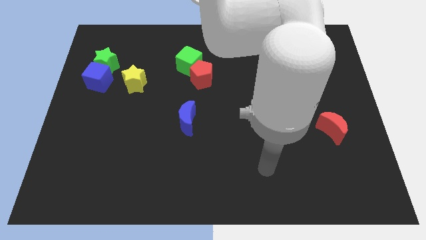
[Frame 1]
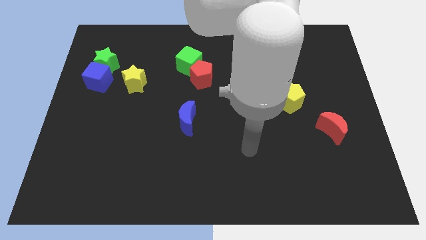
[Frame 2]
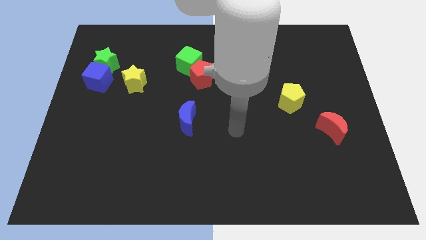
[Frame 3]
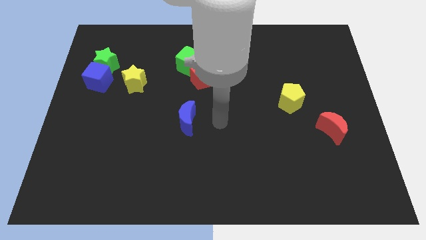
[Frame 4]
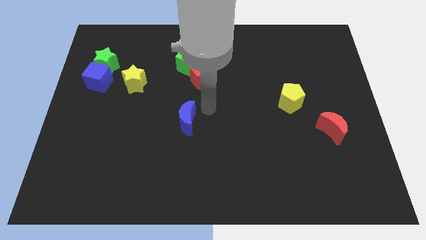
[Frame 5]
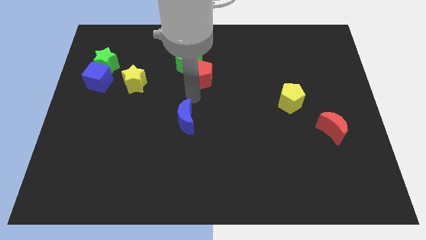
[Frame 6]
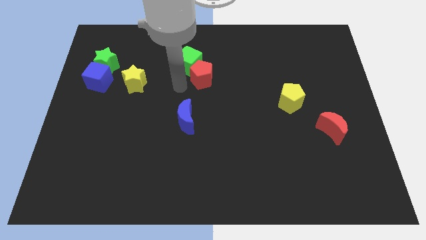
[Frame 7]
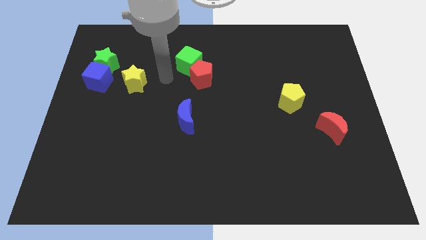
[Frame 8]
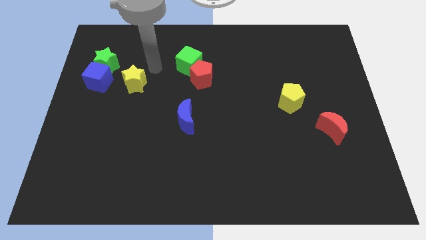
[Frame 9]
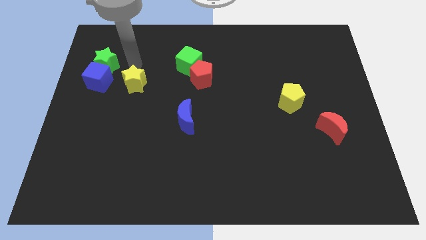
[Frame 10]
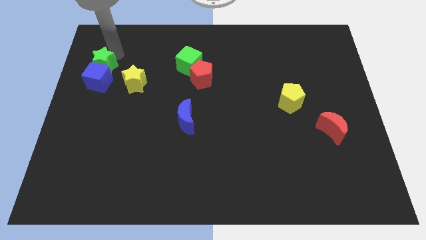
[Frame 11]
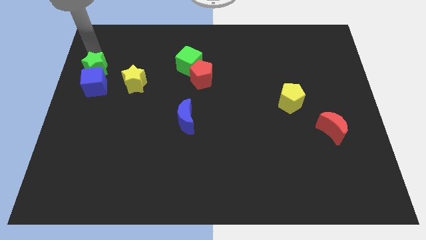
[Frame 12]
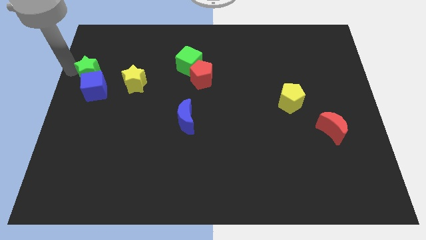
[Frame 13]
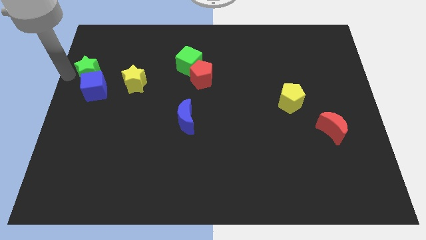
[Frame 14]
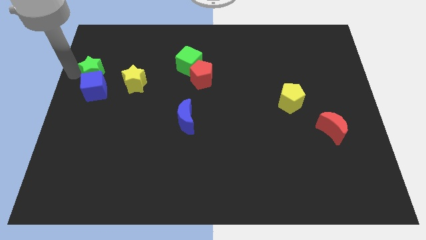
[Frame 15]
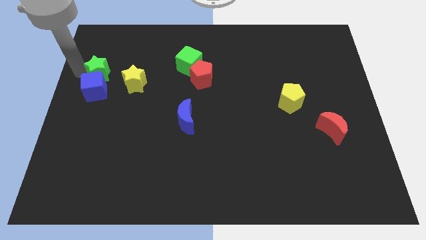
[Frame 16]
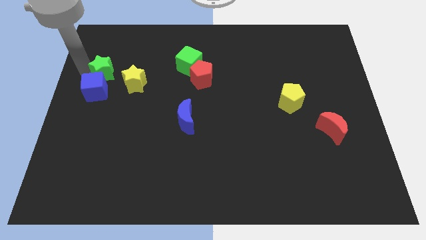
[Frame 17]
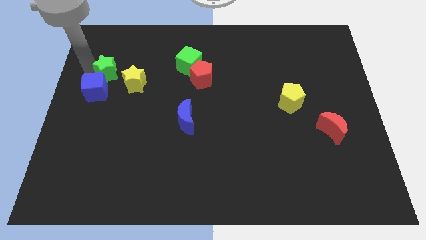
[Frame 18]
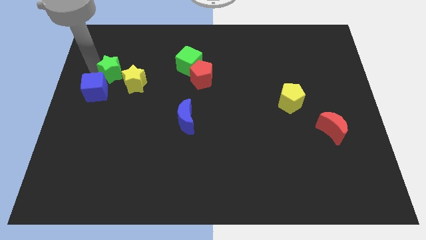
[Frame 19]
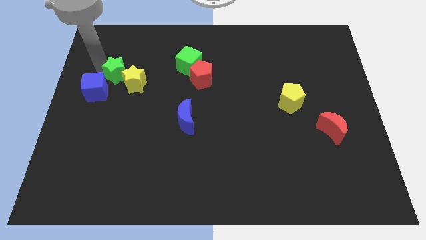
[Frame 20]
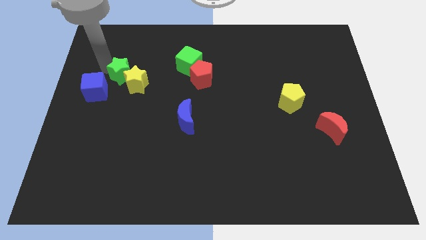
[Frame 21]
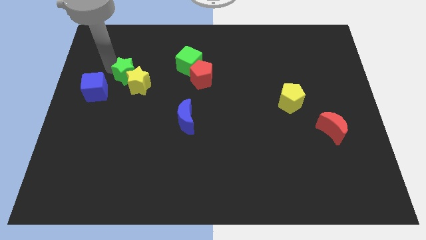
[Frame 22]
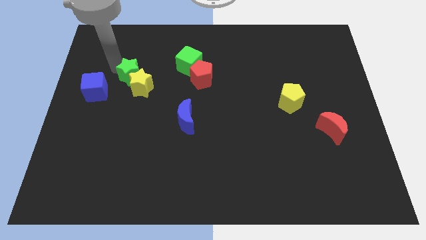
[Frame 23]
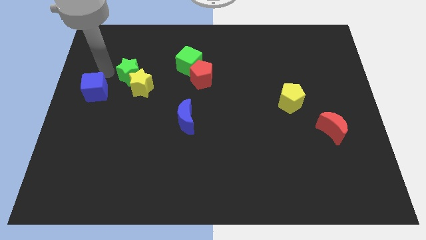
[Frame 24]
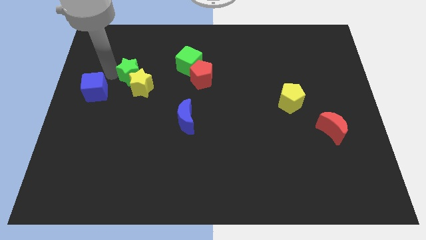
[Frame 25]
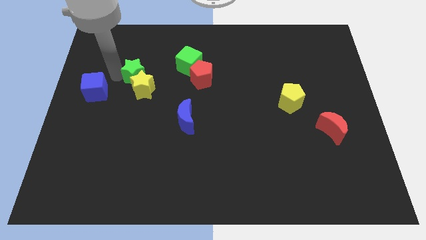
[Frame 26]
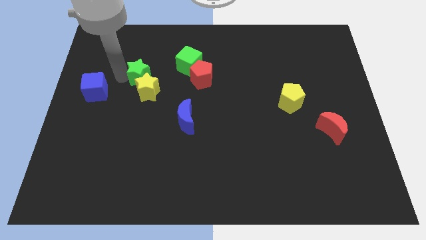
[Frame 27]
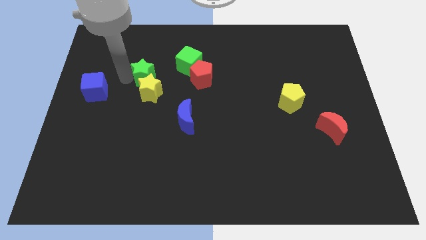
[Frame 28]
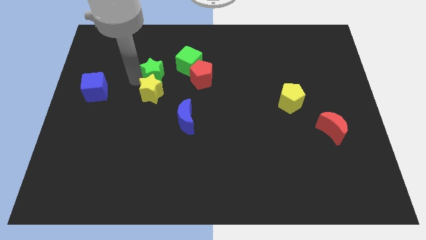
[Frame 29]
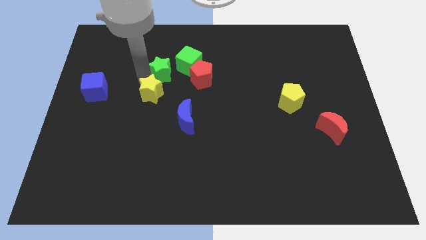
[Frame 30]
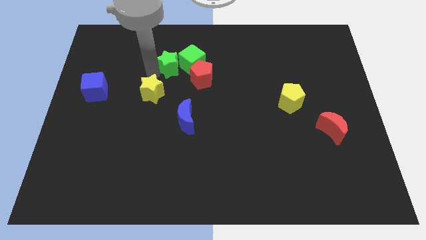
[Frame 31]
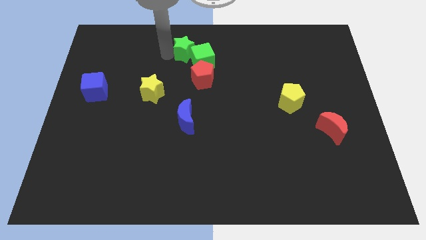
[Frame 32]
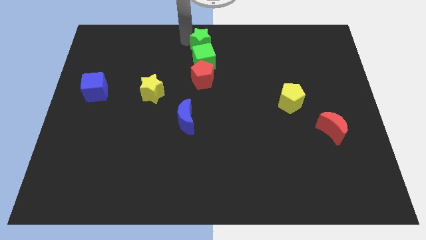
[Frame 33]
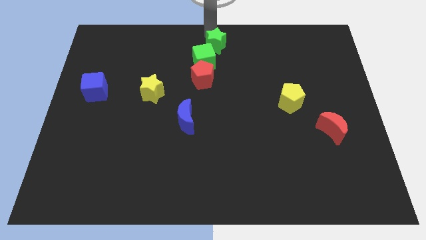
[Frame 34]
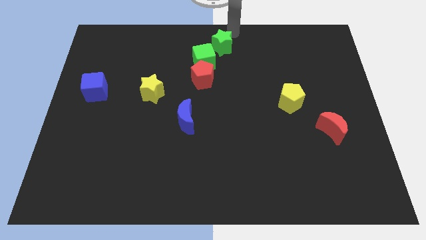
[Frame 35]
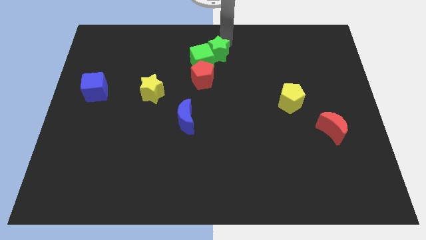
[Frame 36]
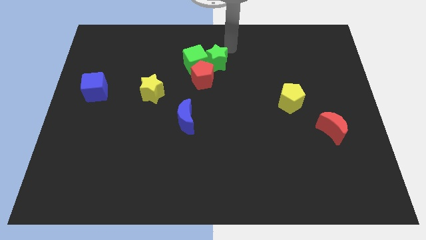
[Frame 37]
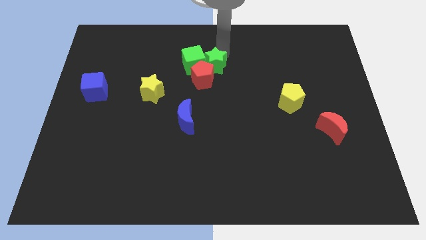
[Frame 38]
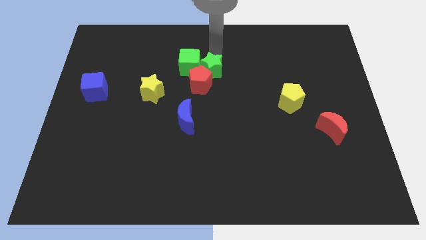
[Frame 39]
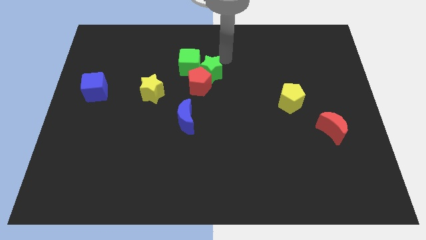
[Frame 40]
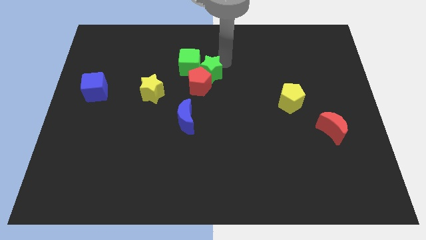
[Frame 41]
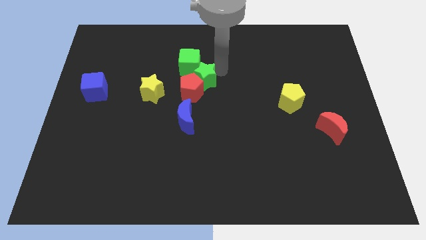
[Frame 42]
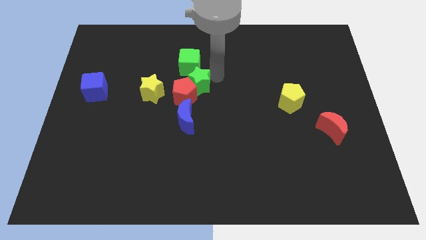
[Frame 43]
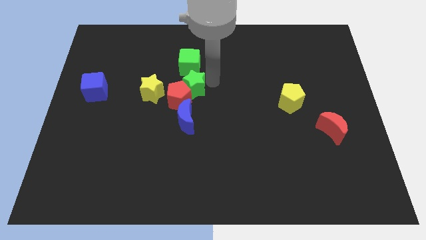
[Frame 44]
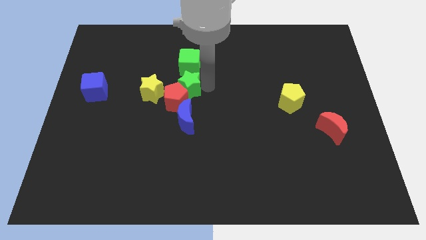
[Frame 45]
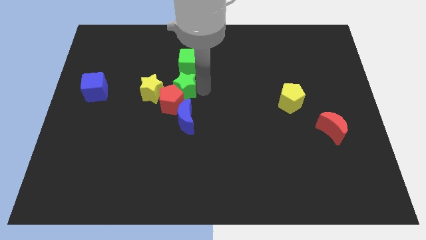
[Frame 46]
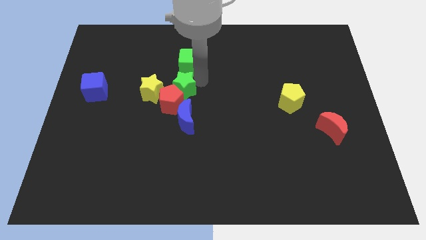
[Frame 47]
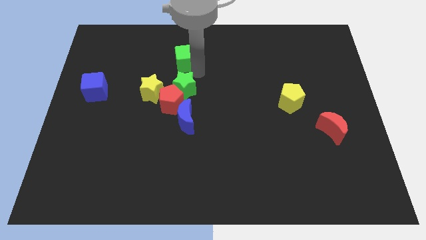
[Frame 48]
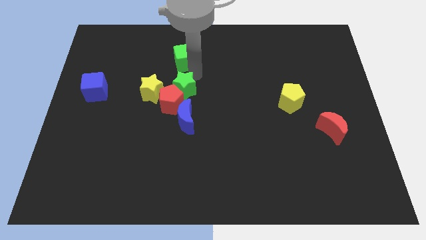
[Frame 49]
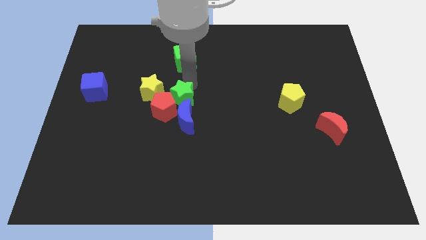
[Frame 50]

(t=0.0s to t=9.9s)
put the green star to the bottom right side of the yellow star

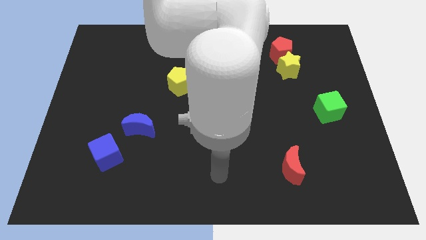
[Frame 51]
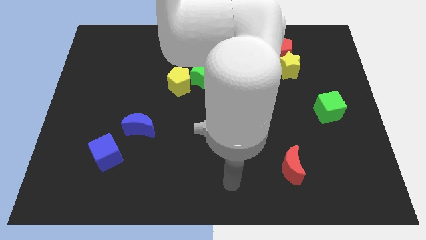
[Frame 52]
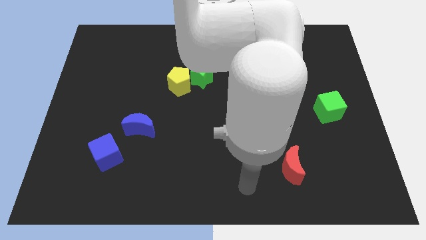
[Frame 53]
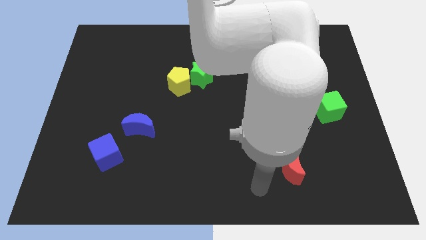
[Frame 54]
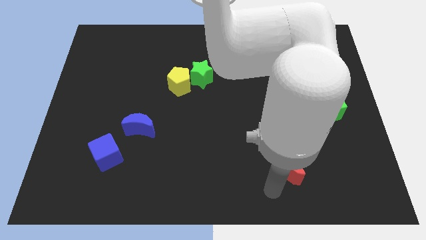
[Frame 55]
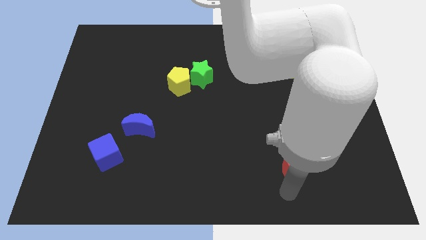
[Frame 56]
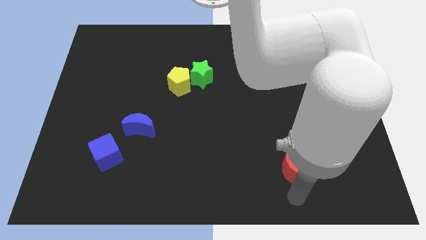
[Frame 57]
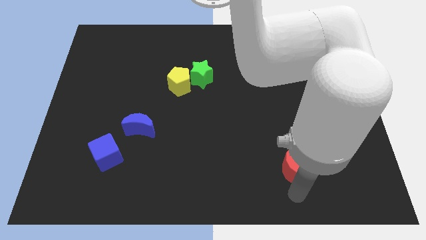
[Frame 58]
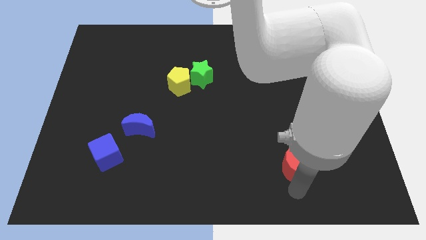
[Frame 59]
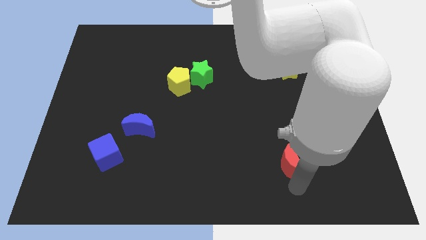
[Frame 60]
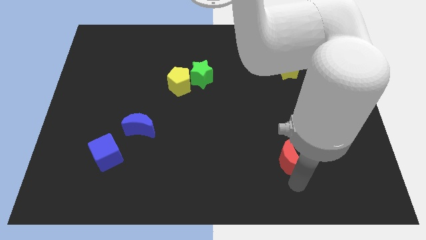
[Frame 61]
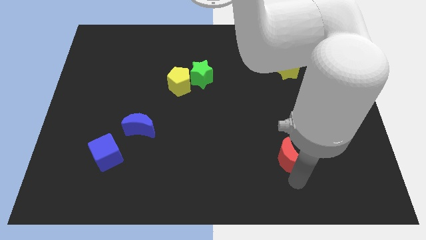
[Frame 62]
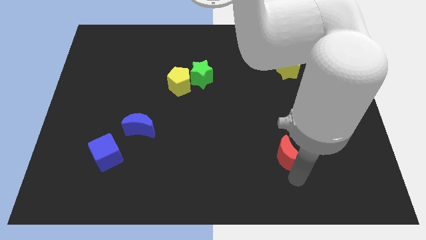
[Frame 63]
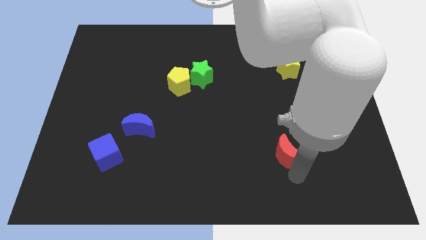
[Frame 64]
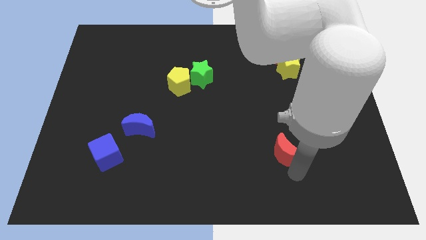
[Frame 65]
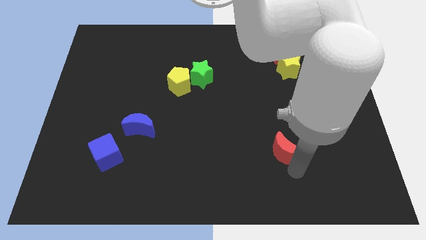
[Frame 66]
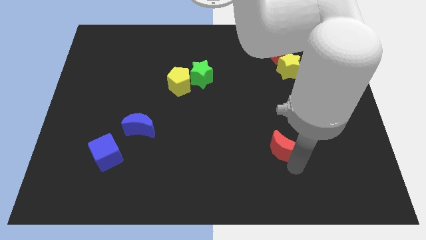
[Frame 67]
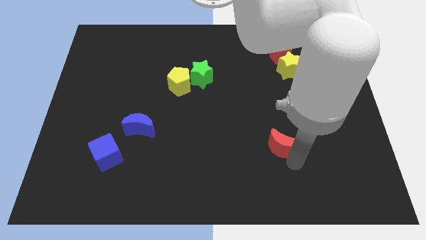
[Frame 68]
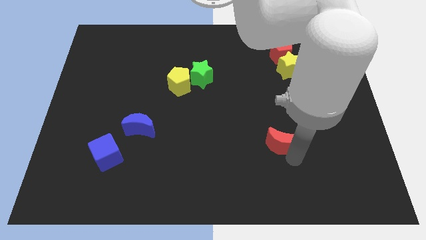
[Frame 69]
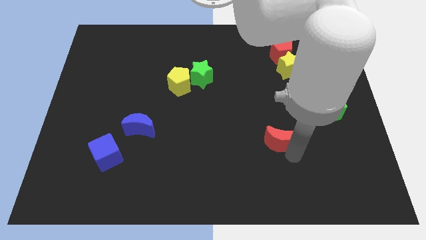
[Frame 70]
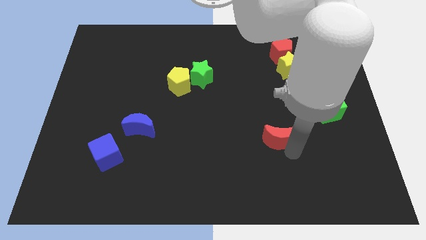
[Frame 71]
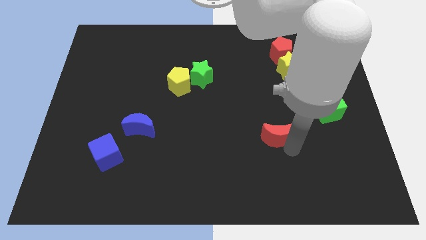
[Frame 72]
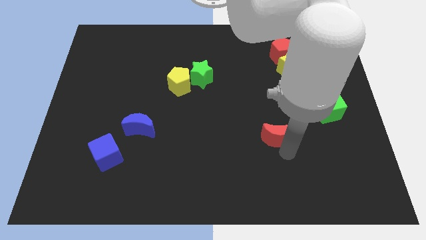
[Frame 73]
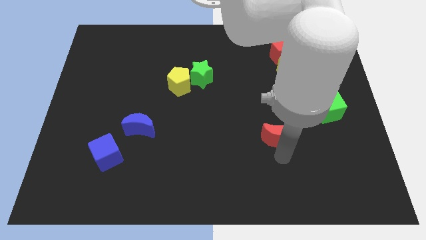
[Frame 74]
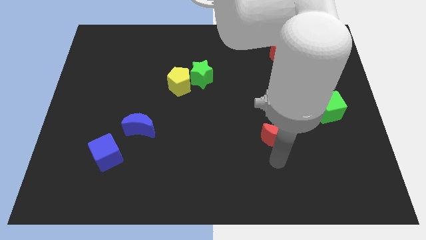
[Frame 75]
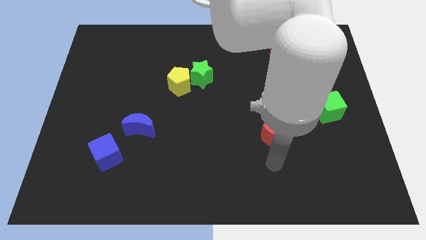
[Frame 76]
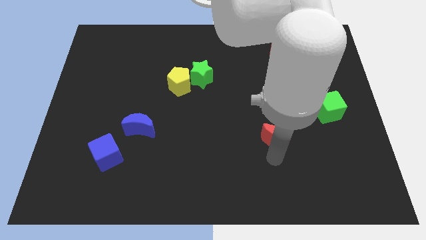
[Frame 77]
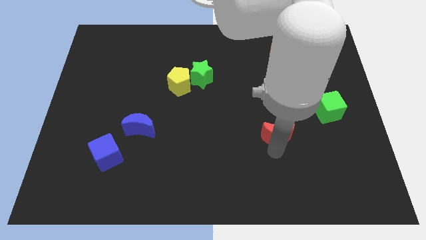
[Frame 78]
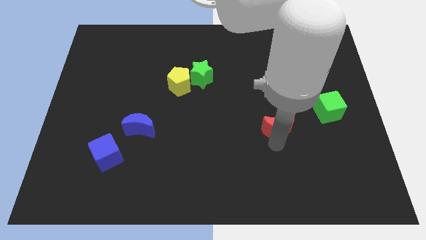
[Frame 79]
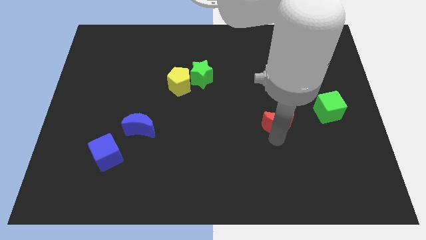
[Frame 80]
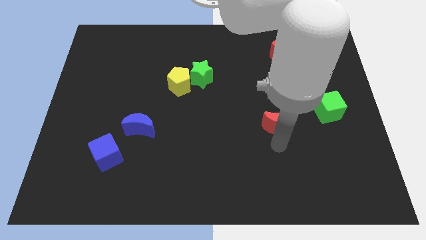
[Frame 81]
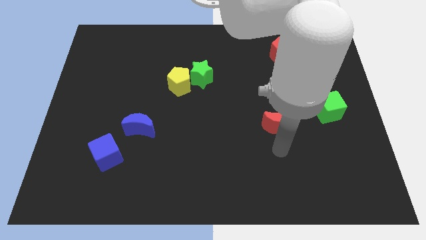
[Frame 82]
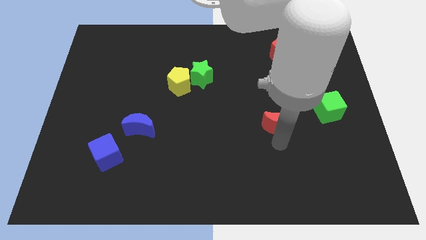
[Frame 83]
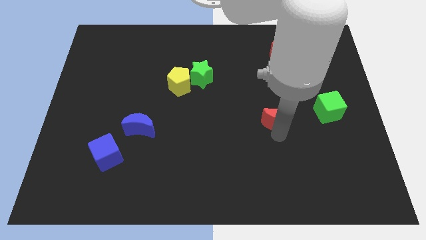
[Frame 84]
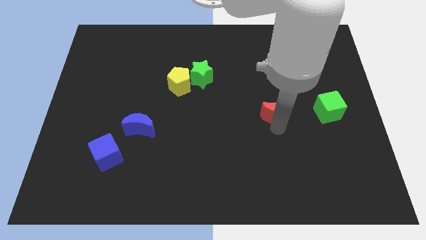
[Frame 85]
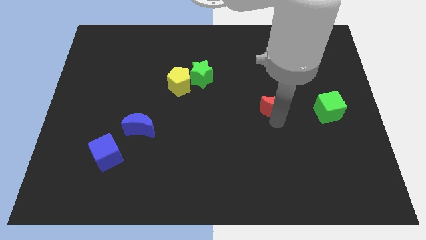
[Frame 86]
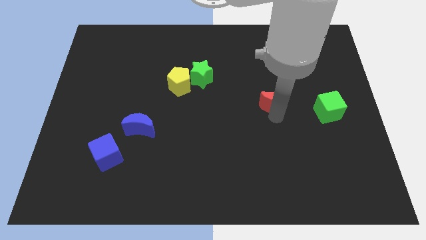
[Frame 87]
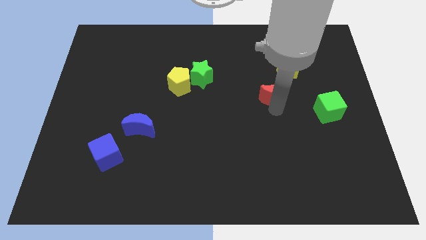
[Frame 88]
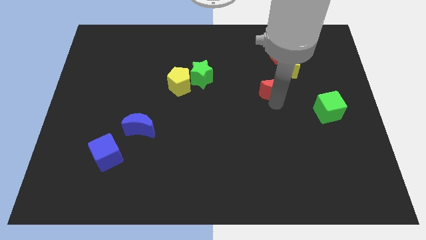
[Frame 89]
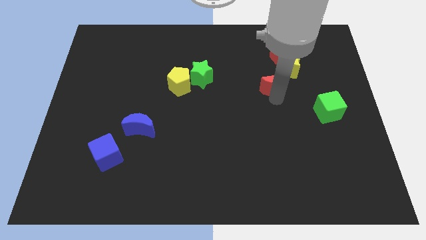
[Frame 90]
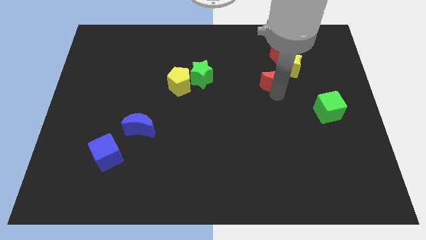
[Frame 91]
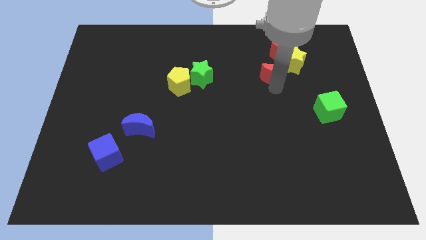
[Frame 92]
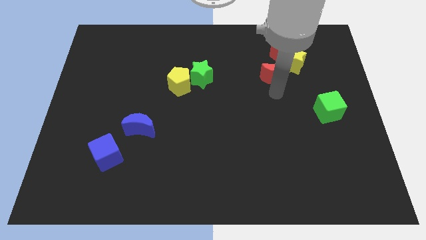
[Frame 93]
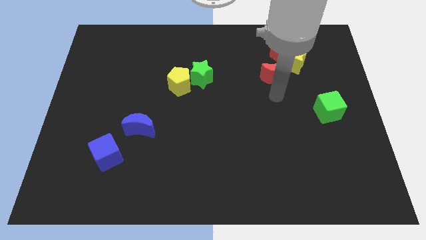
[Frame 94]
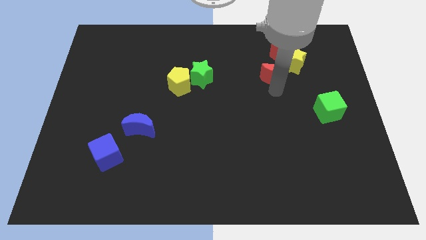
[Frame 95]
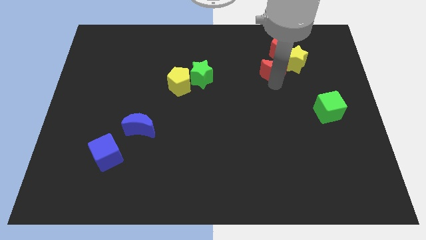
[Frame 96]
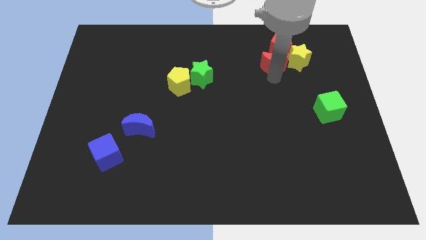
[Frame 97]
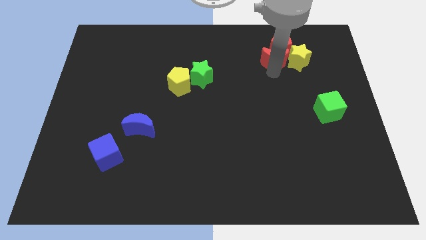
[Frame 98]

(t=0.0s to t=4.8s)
put the red moon to the top left side of the yellow star
